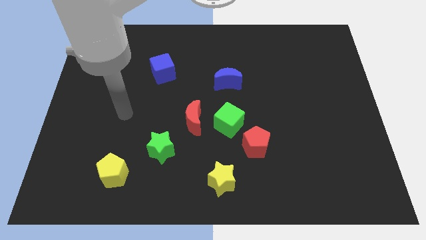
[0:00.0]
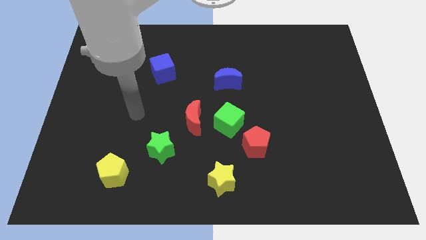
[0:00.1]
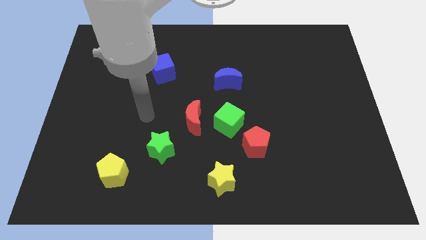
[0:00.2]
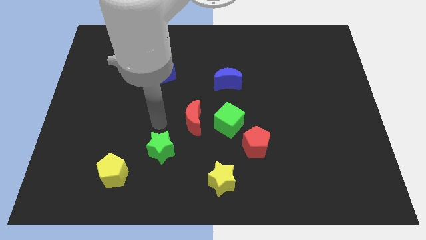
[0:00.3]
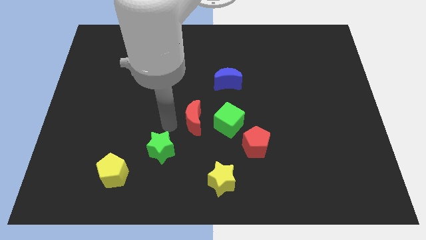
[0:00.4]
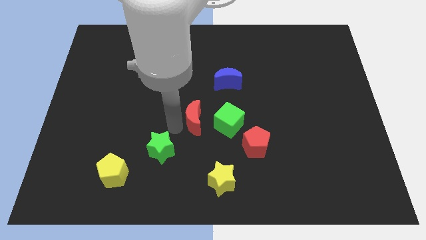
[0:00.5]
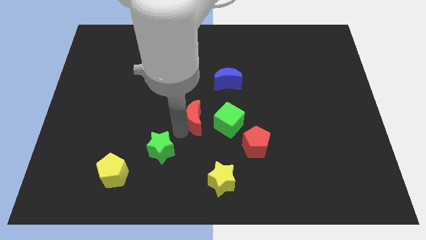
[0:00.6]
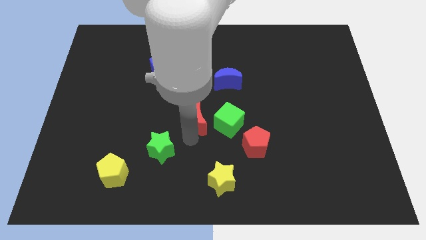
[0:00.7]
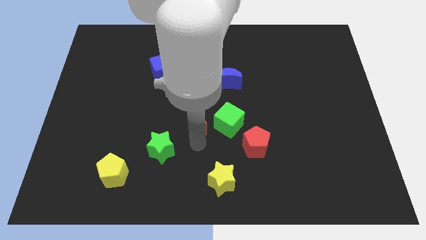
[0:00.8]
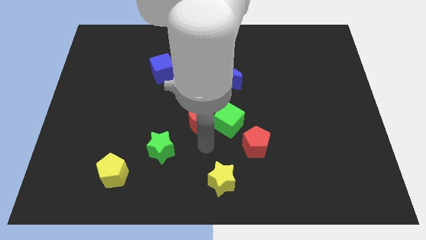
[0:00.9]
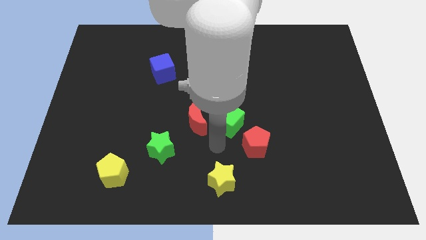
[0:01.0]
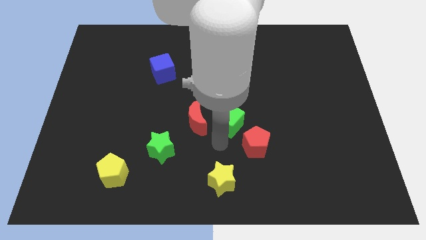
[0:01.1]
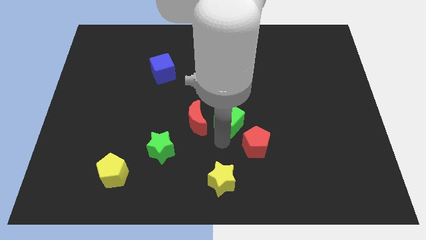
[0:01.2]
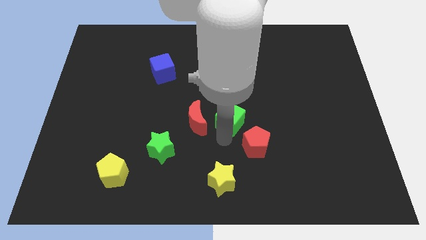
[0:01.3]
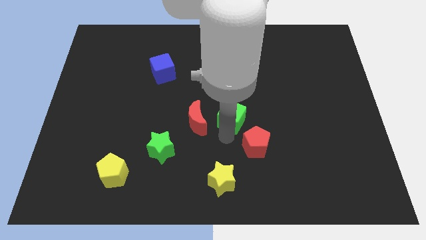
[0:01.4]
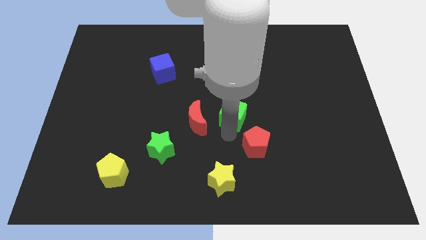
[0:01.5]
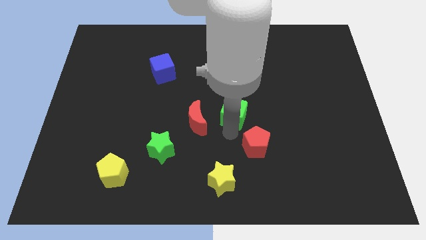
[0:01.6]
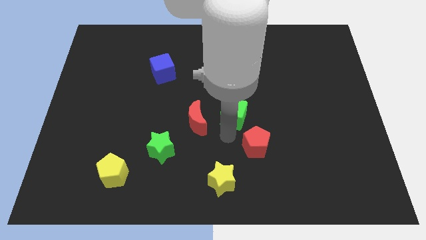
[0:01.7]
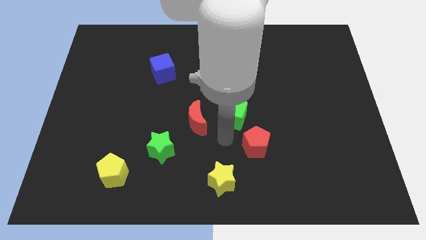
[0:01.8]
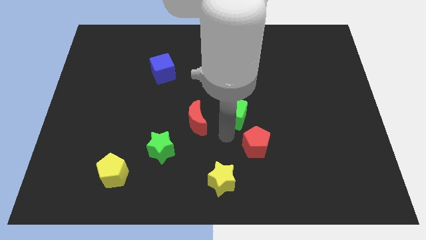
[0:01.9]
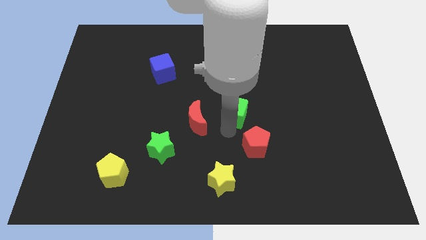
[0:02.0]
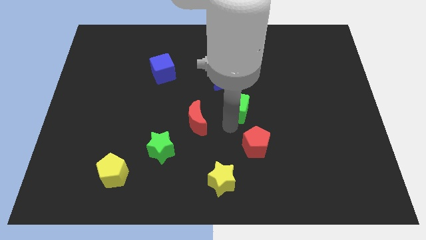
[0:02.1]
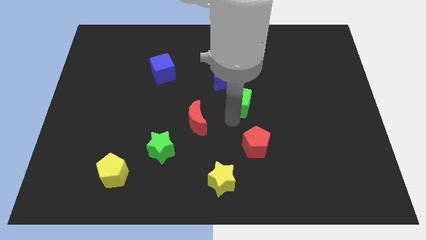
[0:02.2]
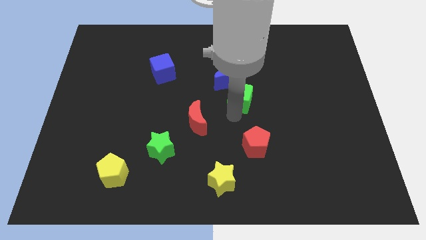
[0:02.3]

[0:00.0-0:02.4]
separate the green cube from the red moon and red pentagon

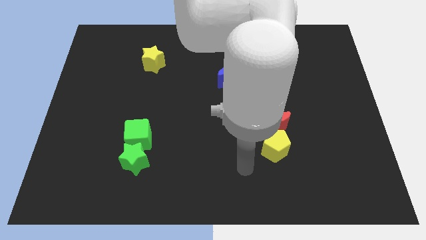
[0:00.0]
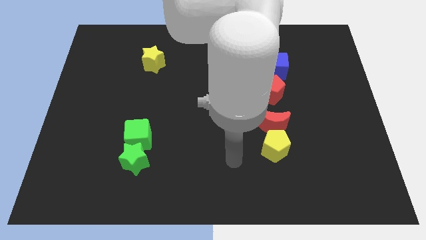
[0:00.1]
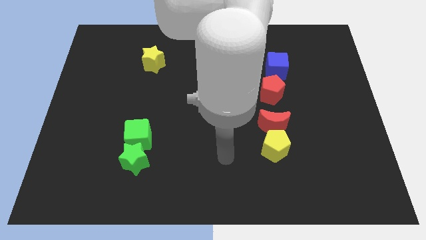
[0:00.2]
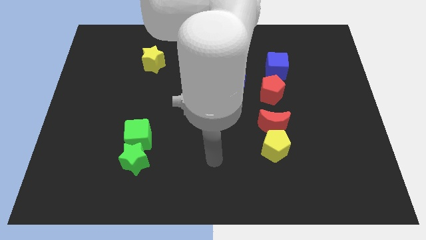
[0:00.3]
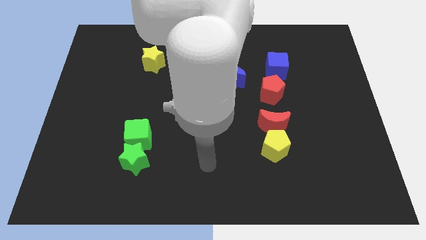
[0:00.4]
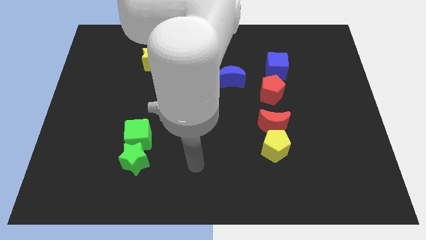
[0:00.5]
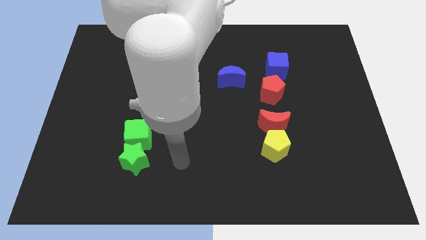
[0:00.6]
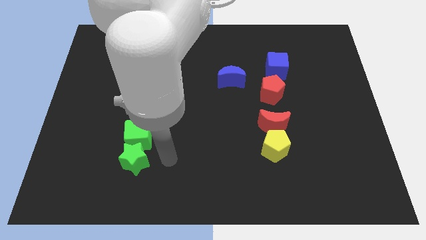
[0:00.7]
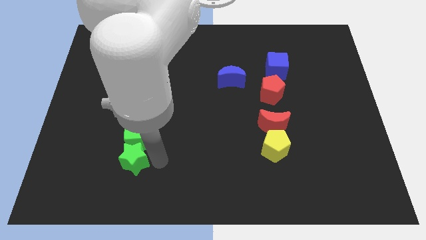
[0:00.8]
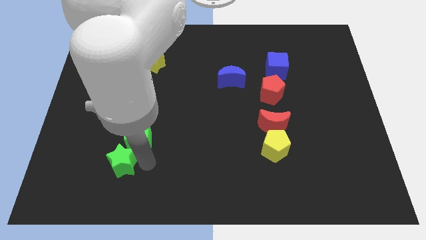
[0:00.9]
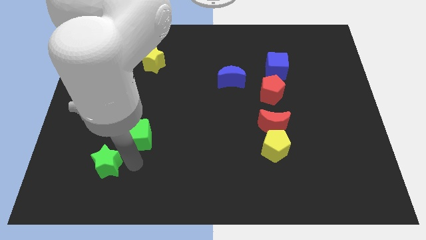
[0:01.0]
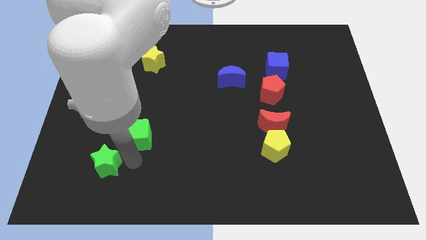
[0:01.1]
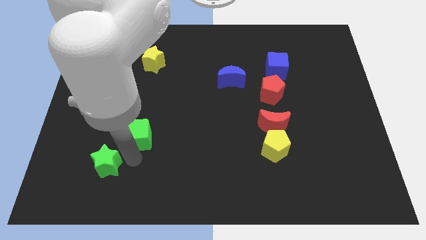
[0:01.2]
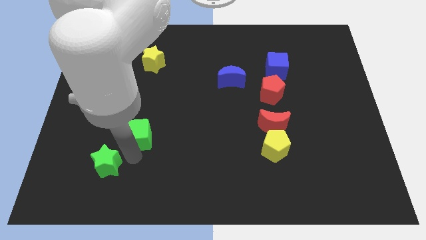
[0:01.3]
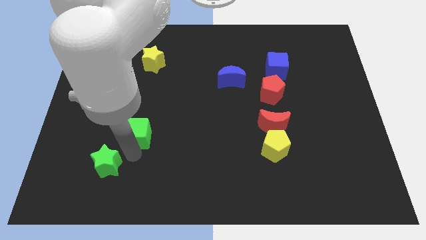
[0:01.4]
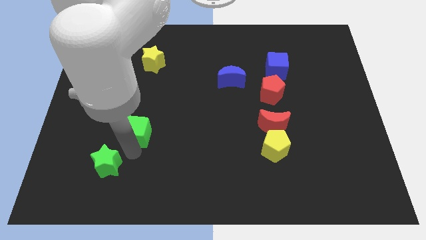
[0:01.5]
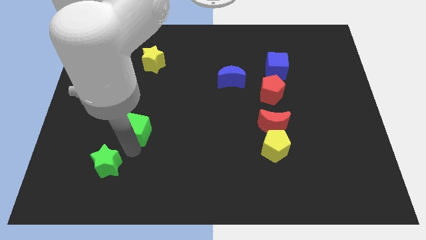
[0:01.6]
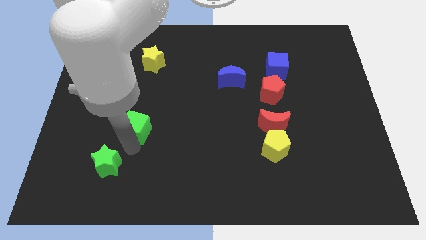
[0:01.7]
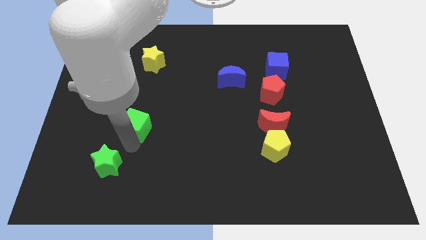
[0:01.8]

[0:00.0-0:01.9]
pull the green cube apart from the green star

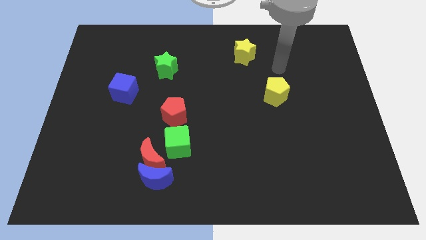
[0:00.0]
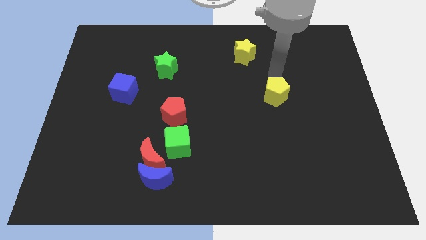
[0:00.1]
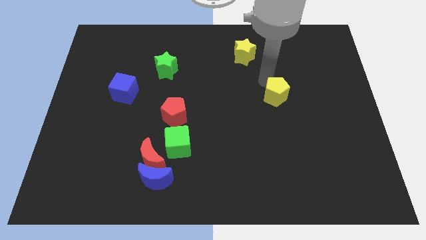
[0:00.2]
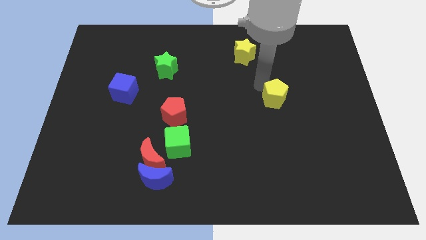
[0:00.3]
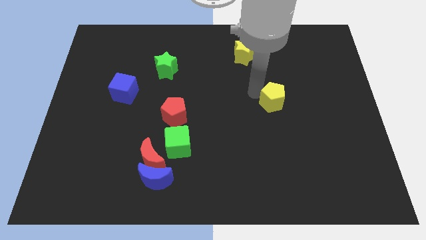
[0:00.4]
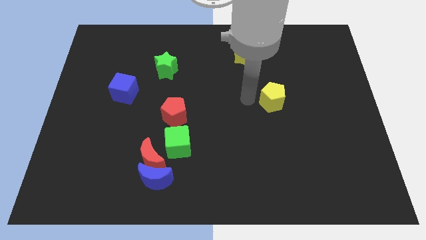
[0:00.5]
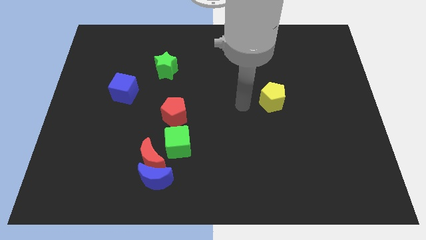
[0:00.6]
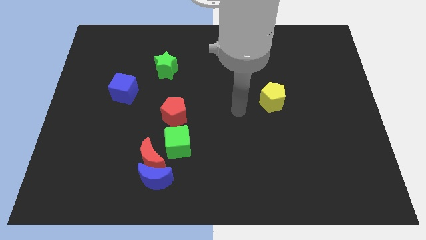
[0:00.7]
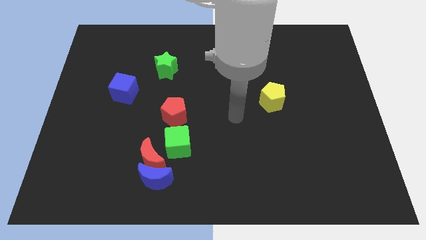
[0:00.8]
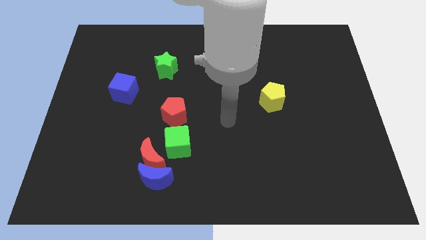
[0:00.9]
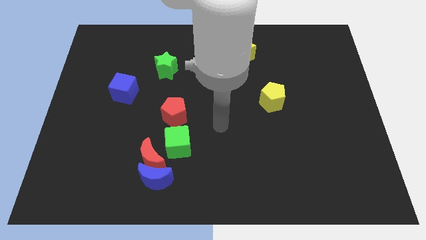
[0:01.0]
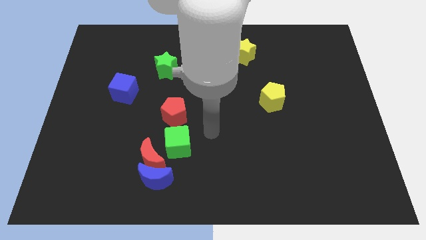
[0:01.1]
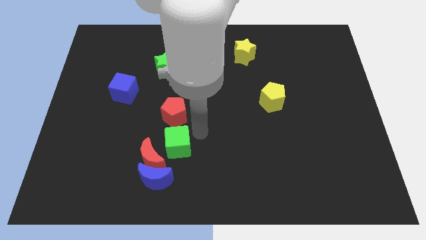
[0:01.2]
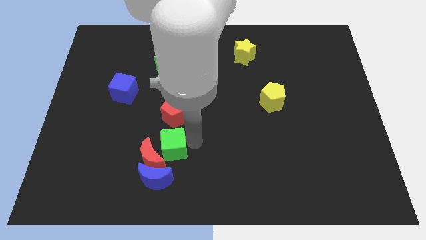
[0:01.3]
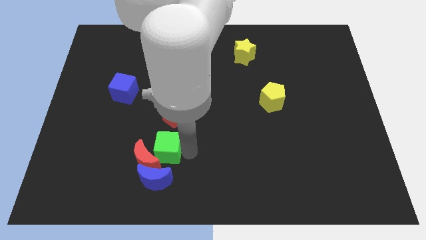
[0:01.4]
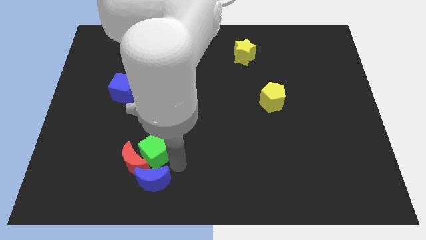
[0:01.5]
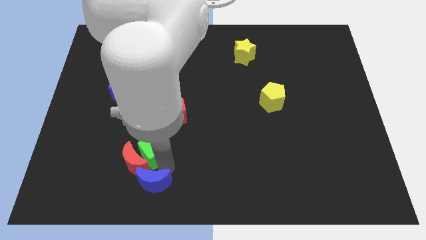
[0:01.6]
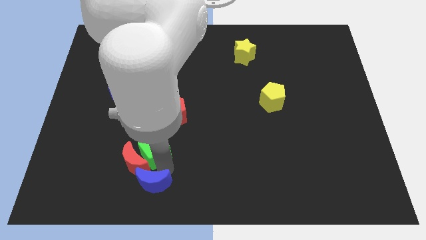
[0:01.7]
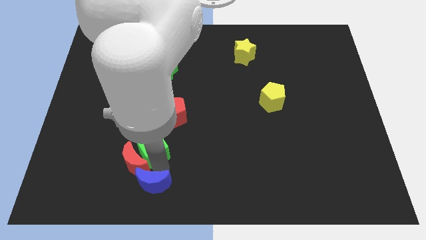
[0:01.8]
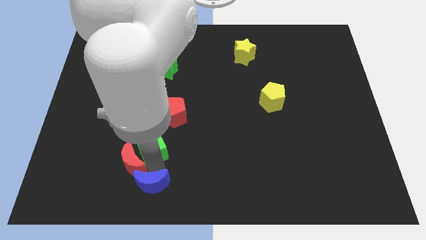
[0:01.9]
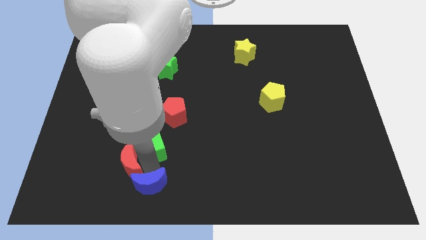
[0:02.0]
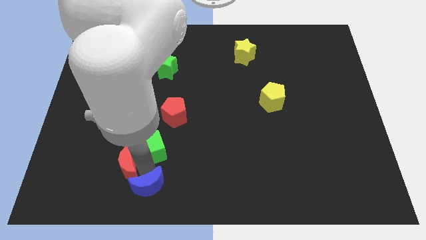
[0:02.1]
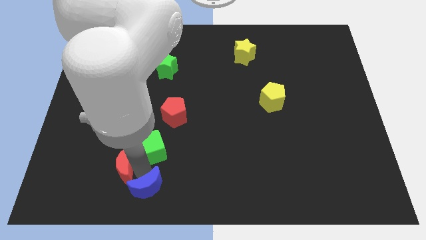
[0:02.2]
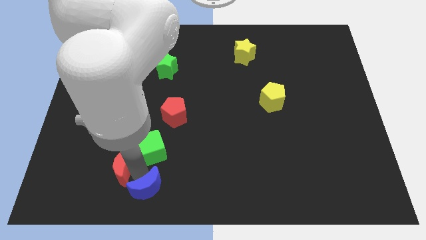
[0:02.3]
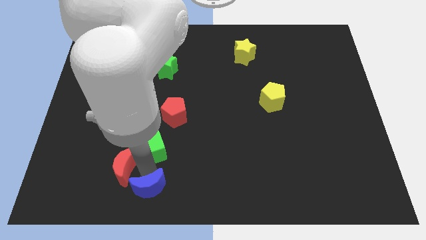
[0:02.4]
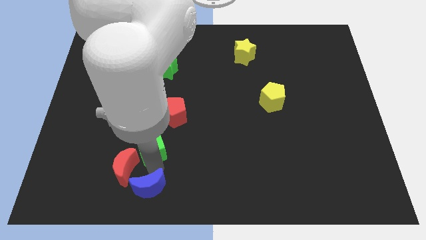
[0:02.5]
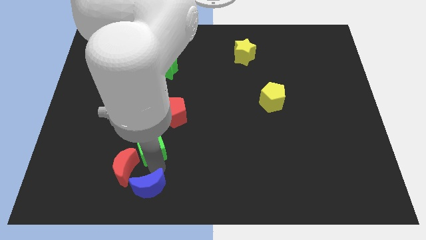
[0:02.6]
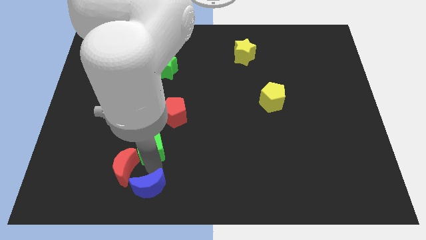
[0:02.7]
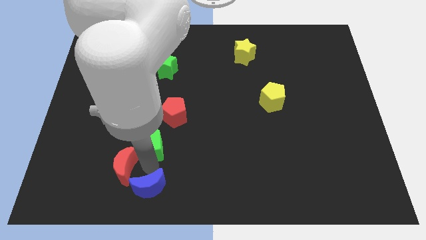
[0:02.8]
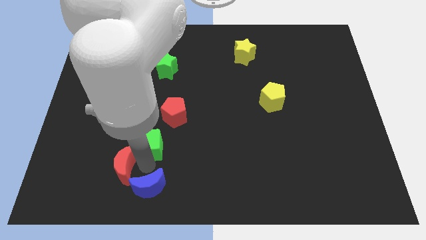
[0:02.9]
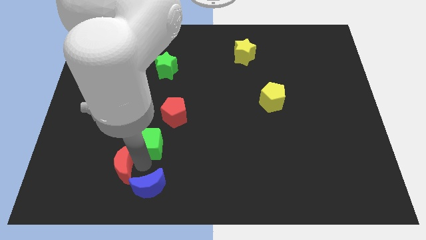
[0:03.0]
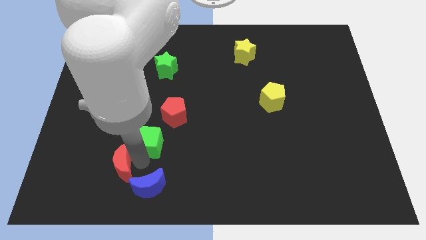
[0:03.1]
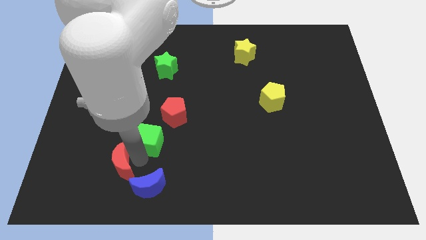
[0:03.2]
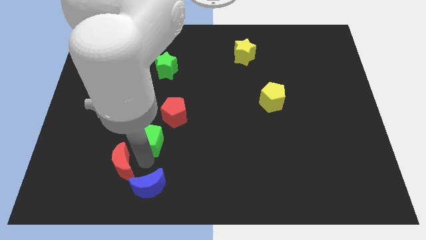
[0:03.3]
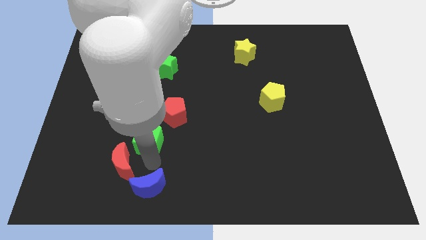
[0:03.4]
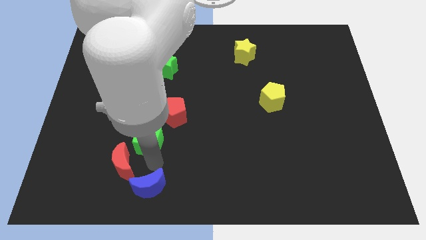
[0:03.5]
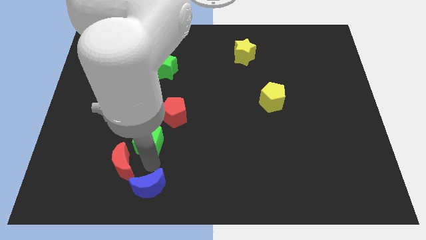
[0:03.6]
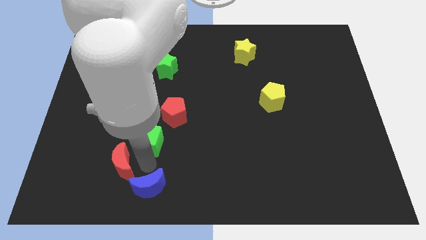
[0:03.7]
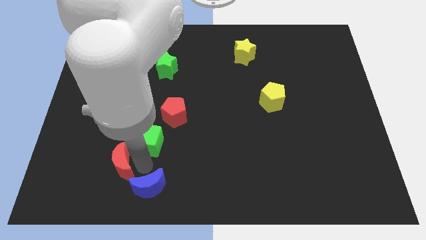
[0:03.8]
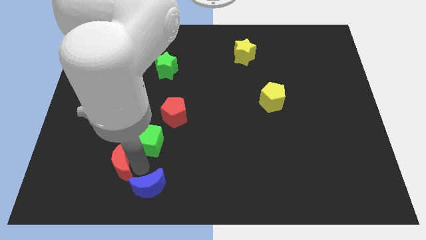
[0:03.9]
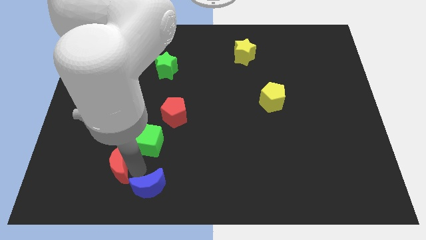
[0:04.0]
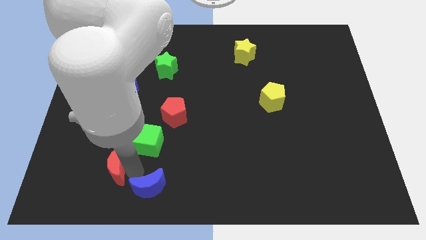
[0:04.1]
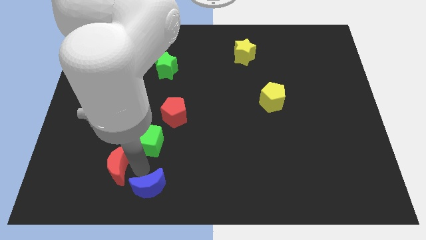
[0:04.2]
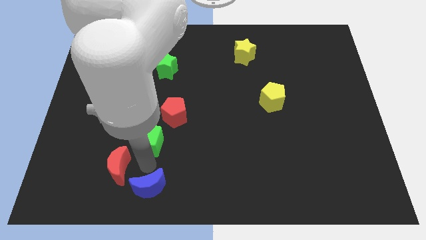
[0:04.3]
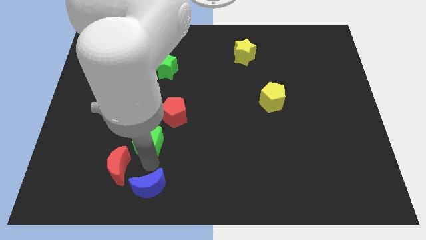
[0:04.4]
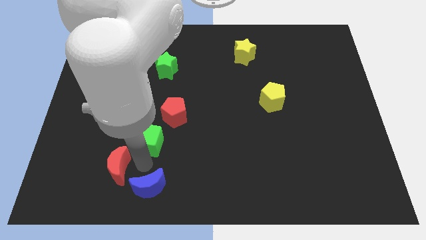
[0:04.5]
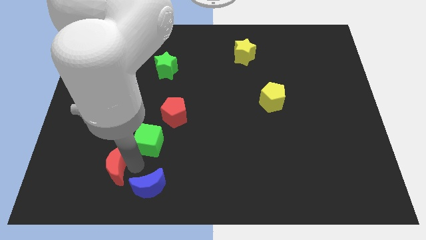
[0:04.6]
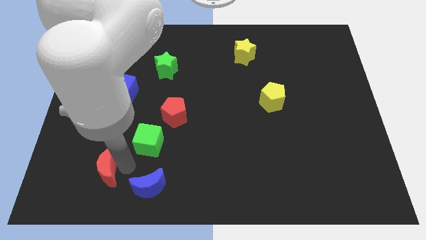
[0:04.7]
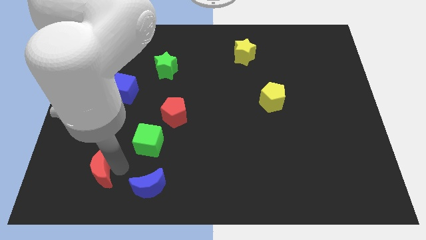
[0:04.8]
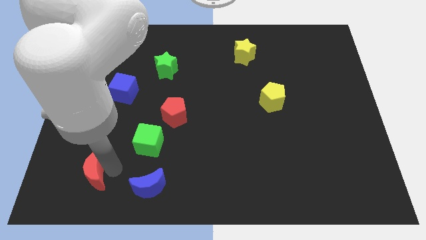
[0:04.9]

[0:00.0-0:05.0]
pull the red moon apart from the blue moon and green cube
